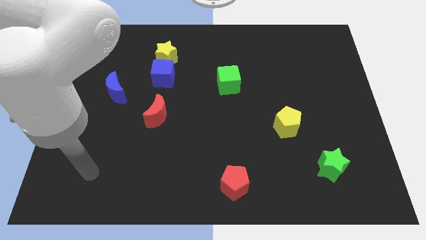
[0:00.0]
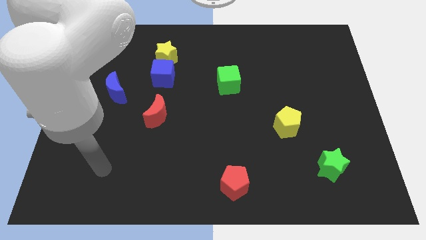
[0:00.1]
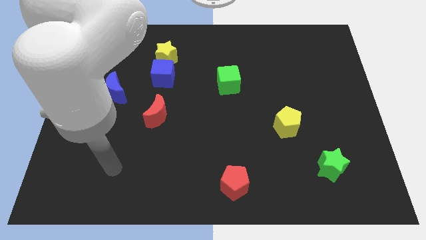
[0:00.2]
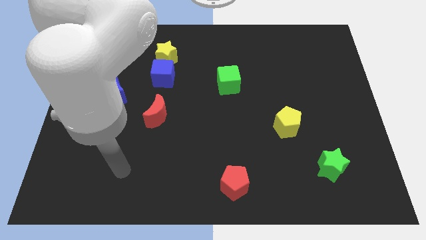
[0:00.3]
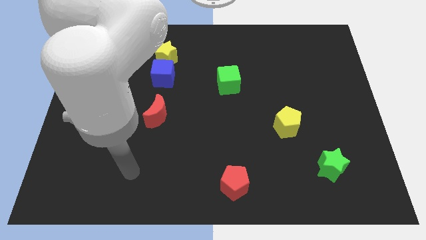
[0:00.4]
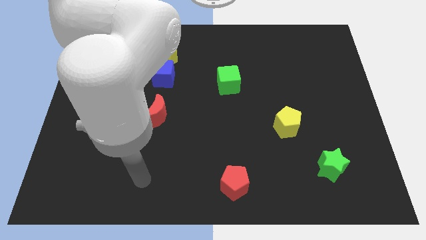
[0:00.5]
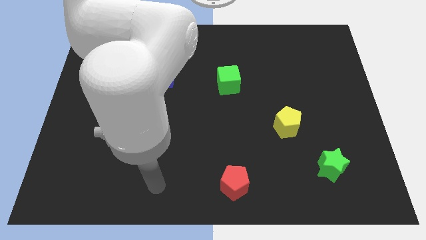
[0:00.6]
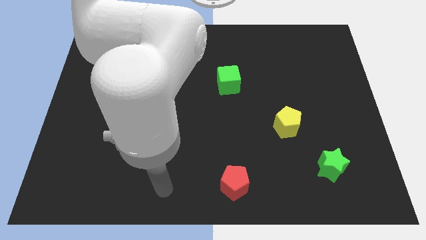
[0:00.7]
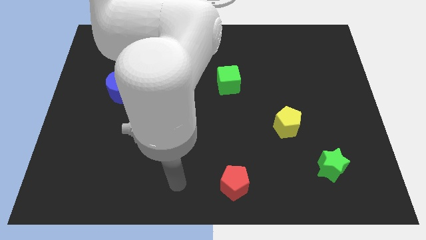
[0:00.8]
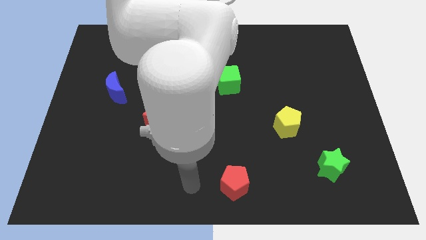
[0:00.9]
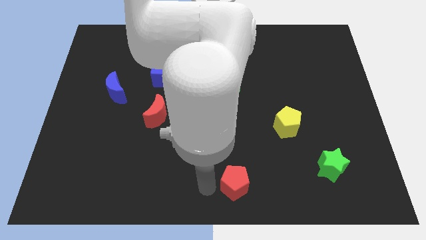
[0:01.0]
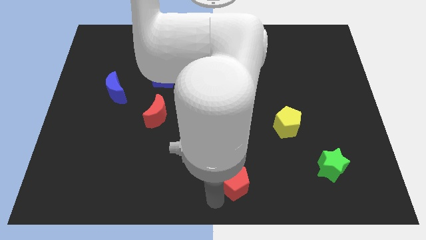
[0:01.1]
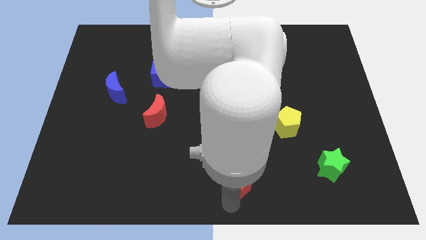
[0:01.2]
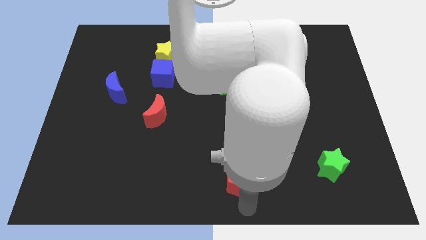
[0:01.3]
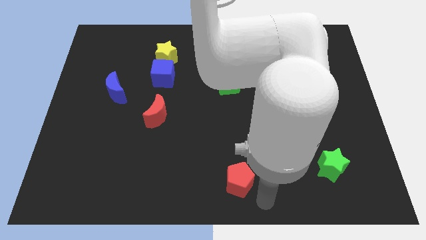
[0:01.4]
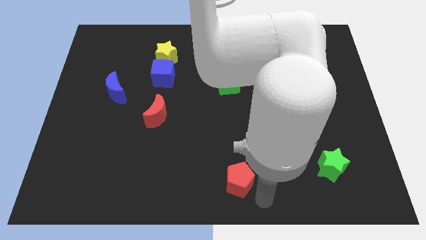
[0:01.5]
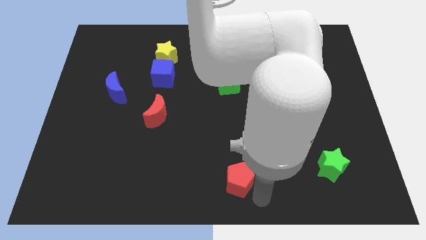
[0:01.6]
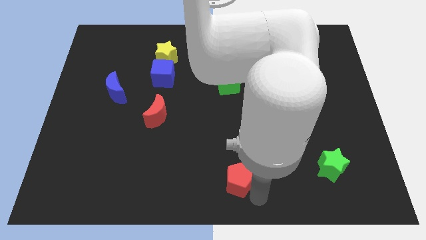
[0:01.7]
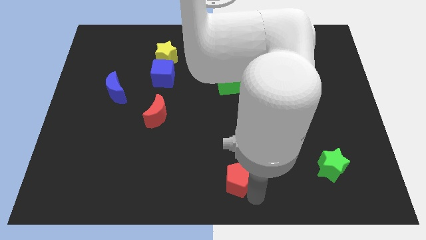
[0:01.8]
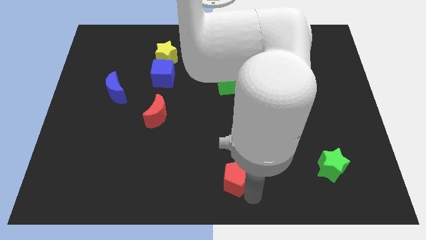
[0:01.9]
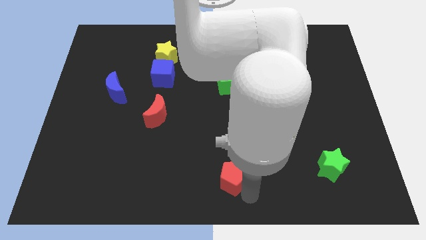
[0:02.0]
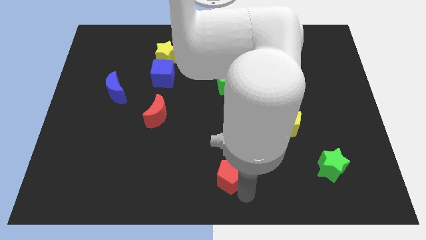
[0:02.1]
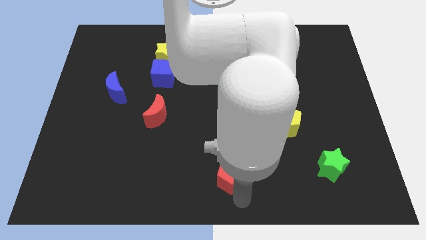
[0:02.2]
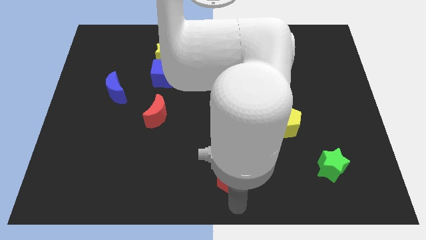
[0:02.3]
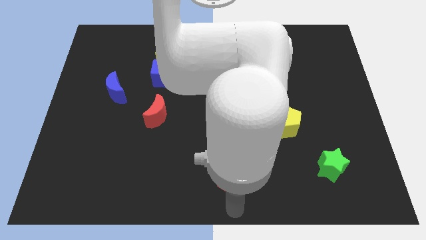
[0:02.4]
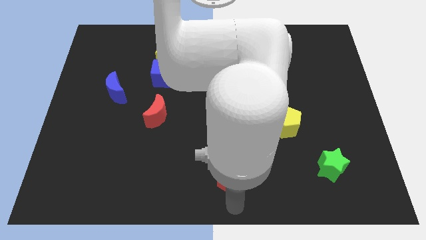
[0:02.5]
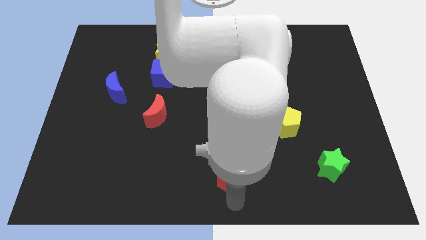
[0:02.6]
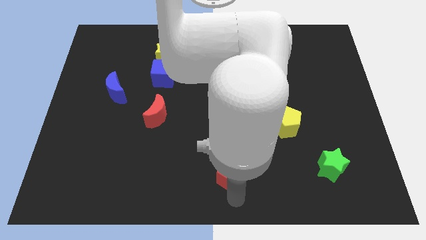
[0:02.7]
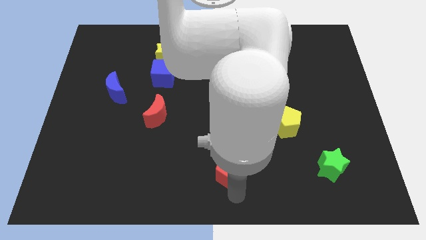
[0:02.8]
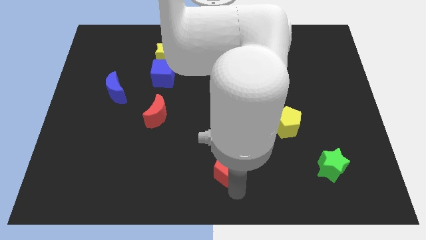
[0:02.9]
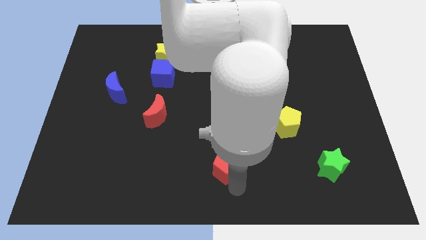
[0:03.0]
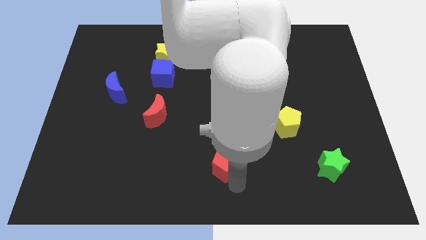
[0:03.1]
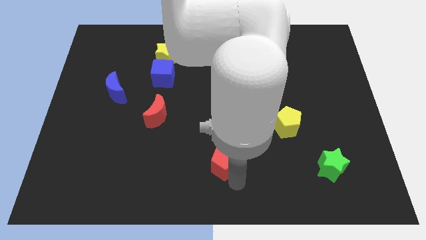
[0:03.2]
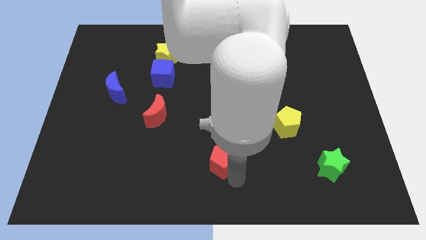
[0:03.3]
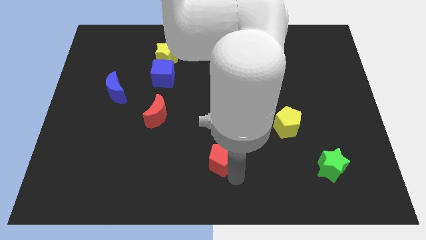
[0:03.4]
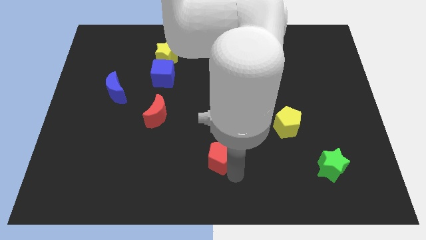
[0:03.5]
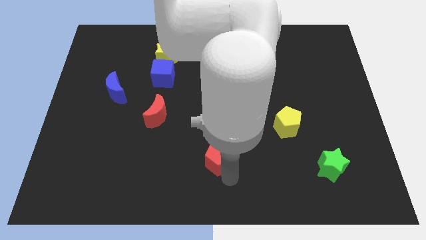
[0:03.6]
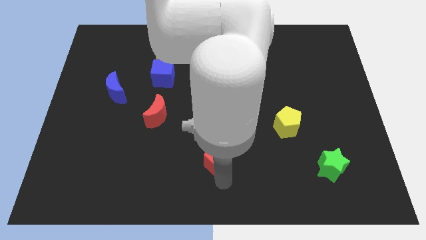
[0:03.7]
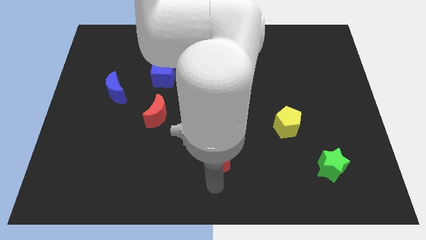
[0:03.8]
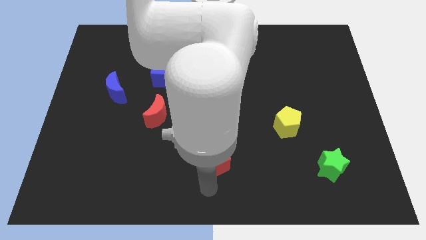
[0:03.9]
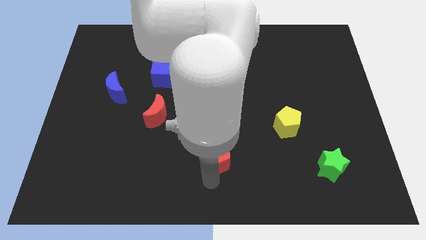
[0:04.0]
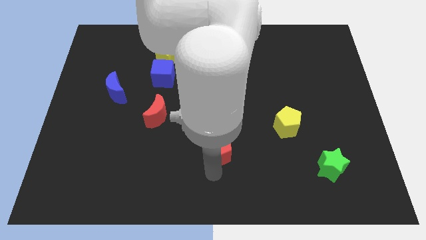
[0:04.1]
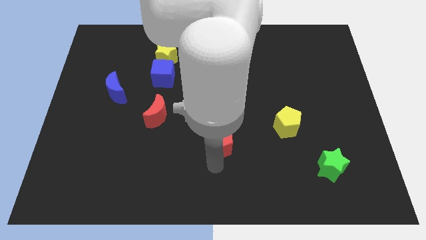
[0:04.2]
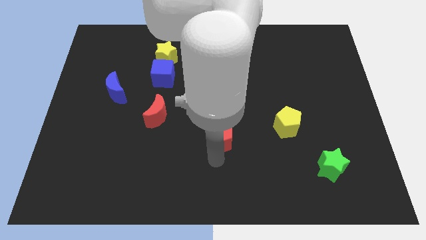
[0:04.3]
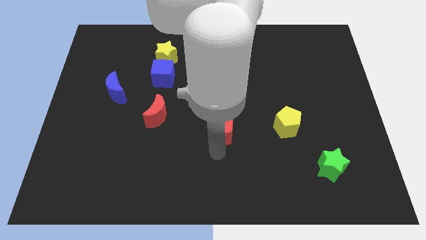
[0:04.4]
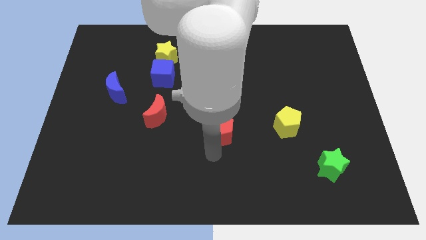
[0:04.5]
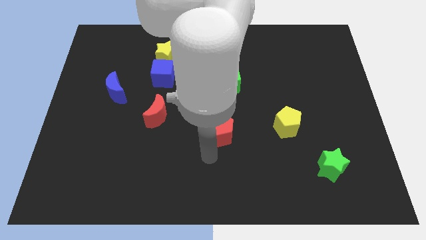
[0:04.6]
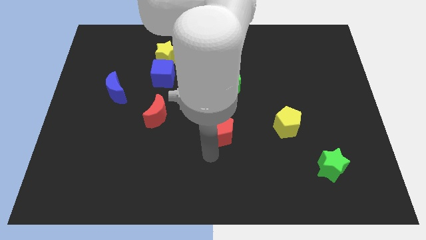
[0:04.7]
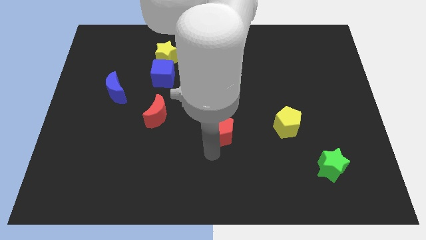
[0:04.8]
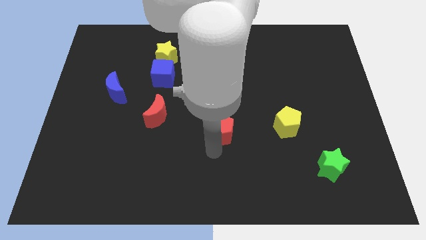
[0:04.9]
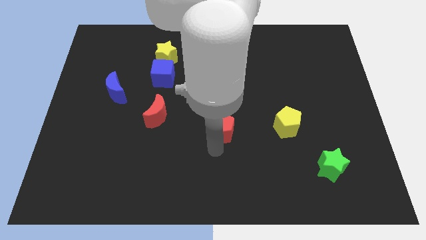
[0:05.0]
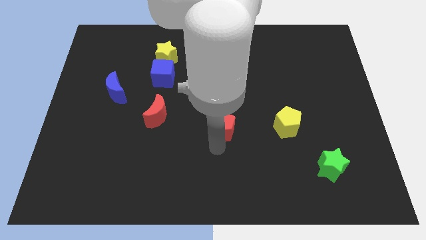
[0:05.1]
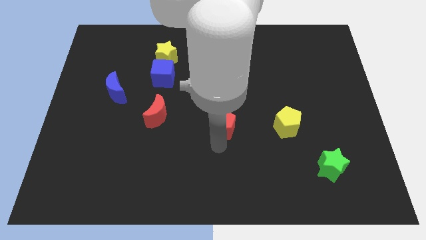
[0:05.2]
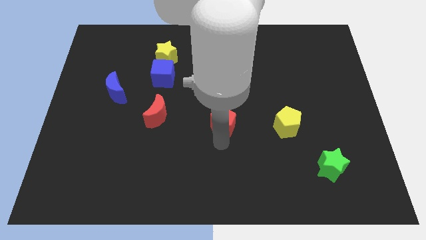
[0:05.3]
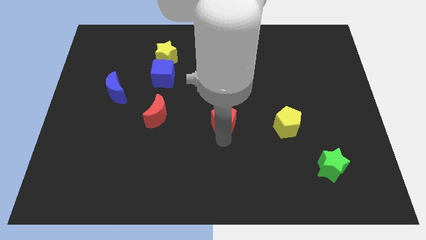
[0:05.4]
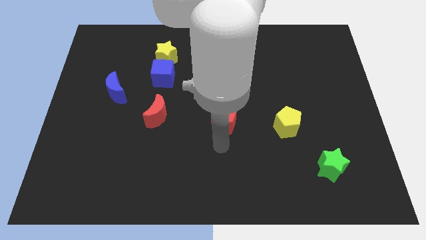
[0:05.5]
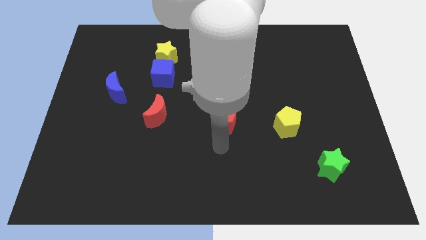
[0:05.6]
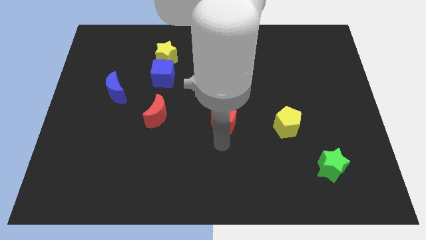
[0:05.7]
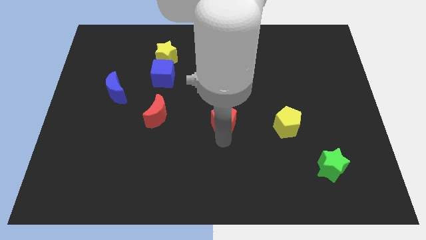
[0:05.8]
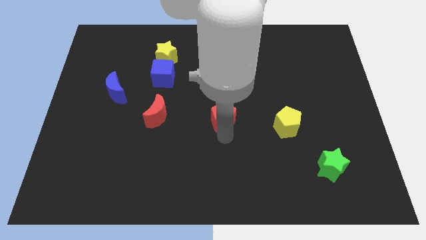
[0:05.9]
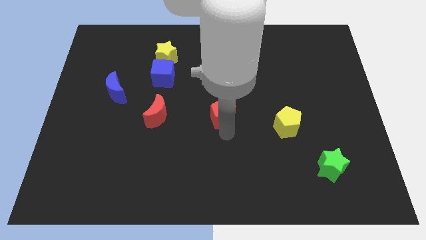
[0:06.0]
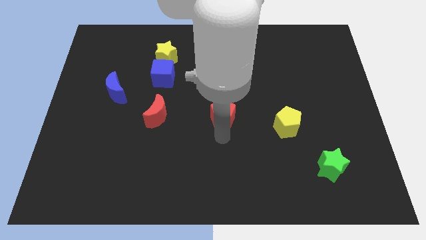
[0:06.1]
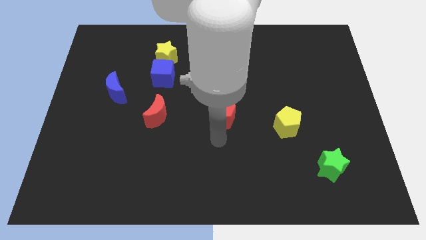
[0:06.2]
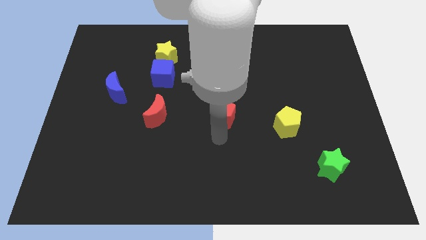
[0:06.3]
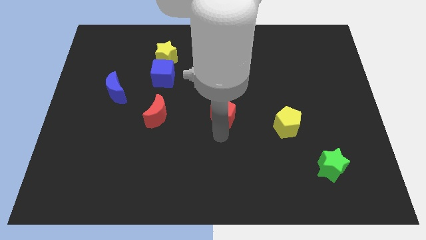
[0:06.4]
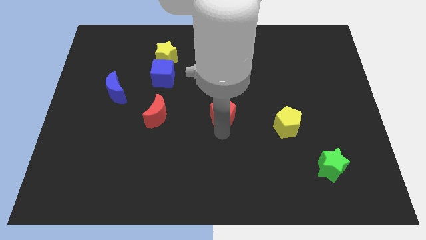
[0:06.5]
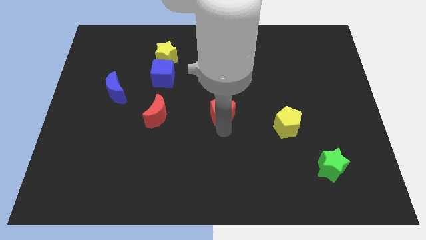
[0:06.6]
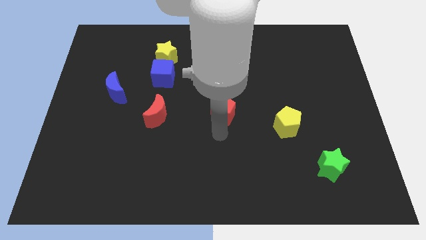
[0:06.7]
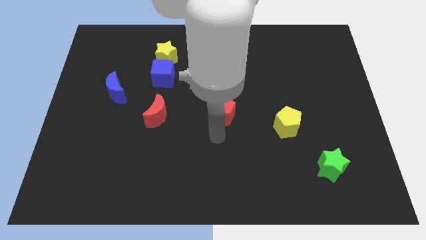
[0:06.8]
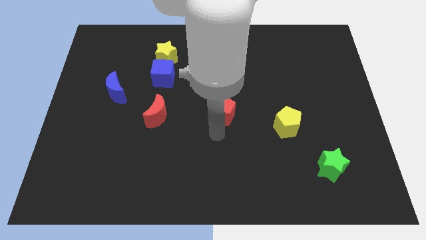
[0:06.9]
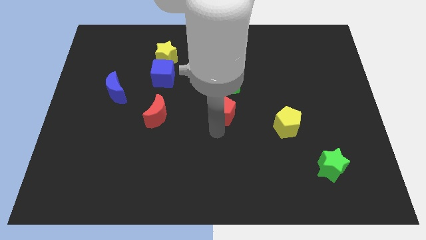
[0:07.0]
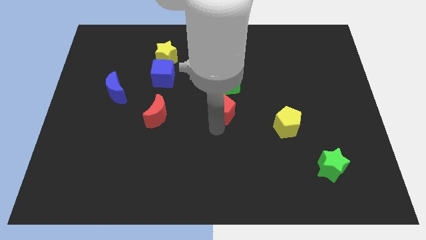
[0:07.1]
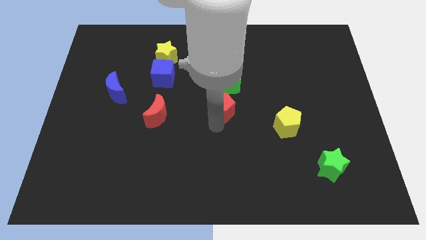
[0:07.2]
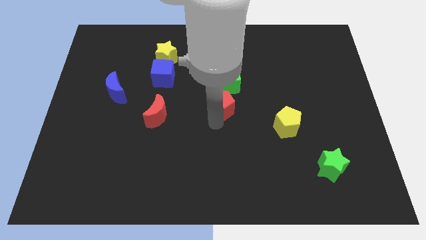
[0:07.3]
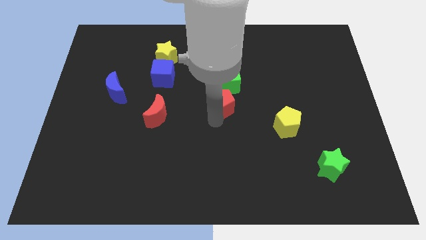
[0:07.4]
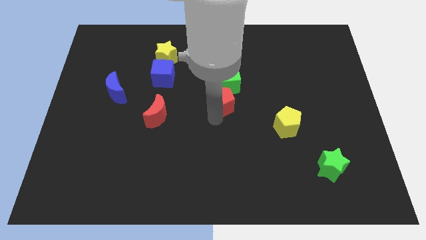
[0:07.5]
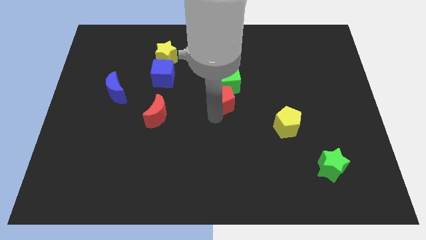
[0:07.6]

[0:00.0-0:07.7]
push the red pentagon next to the green cube
